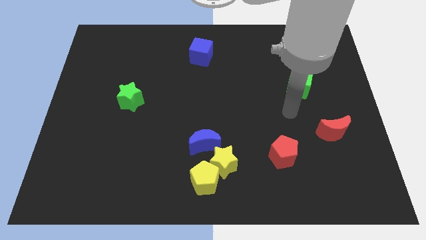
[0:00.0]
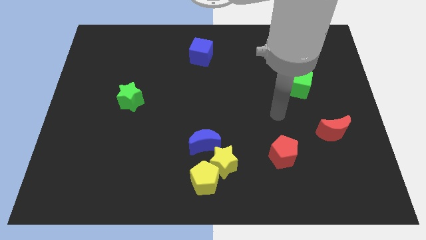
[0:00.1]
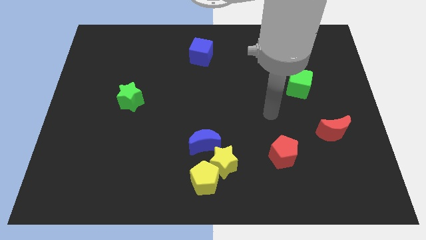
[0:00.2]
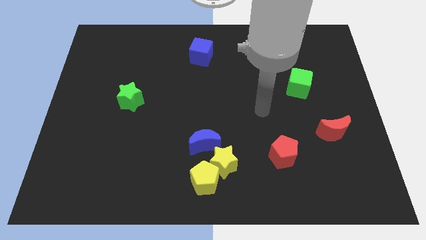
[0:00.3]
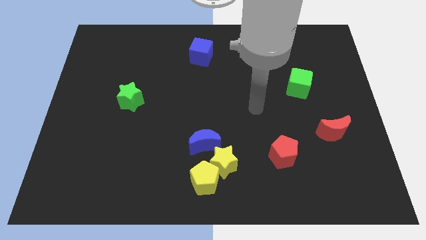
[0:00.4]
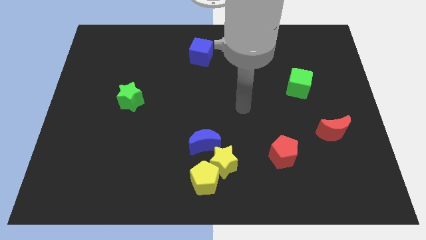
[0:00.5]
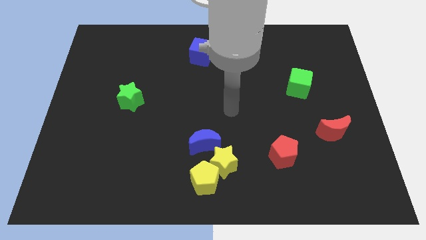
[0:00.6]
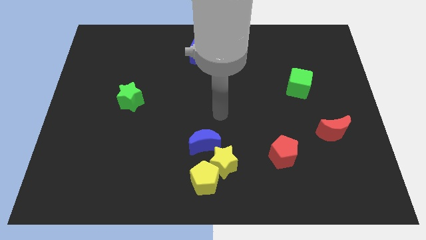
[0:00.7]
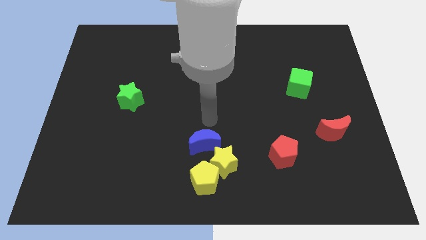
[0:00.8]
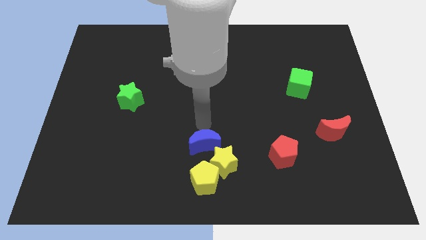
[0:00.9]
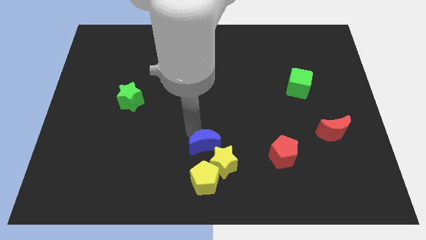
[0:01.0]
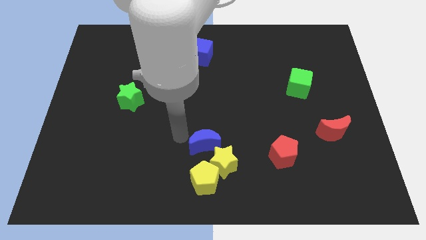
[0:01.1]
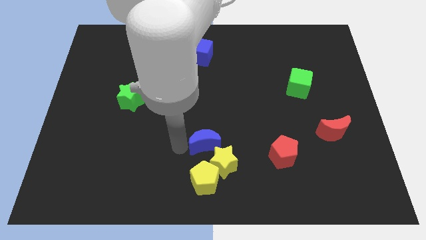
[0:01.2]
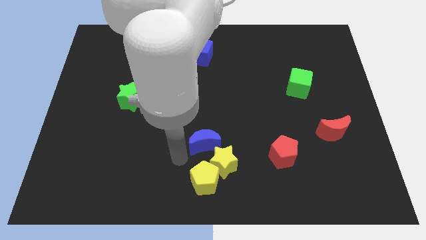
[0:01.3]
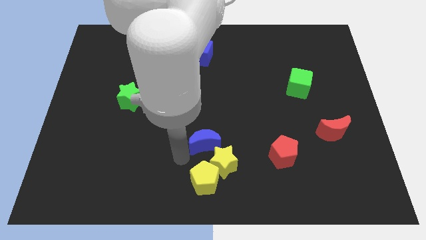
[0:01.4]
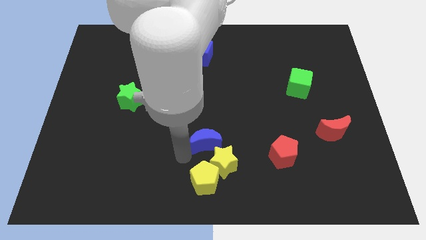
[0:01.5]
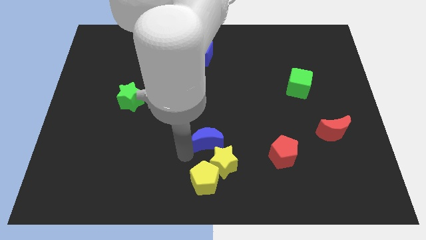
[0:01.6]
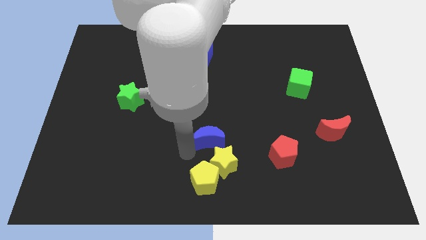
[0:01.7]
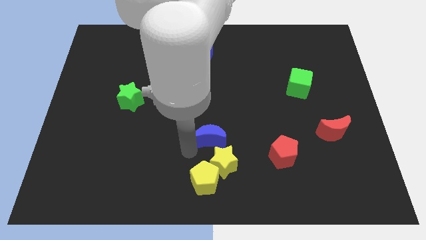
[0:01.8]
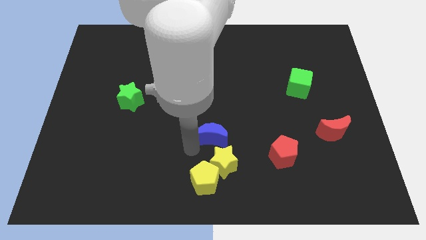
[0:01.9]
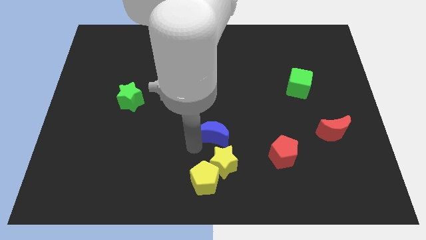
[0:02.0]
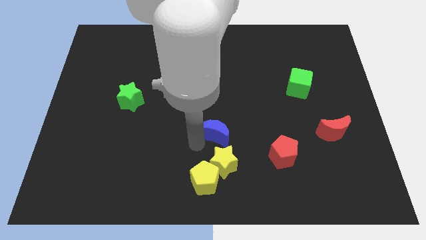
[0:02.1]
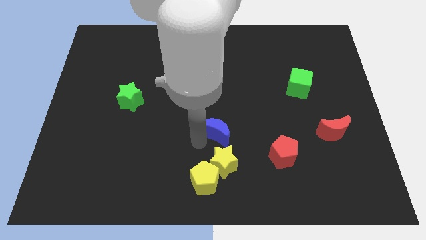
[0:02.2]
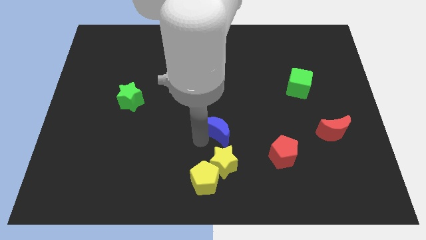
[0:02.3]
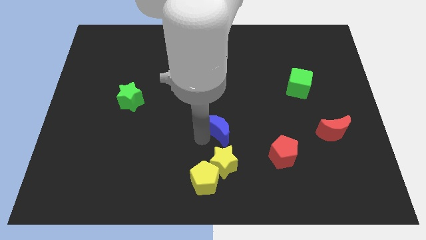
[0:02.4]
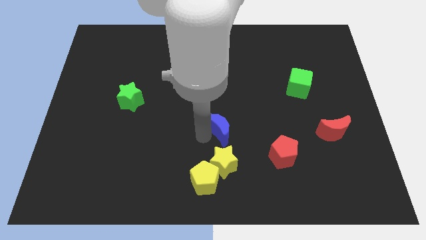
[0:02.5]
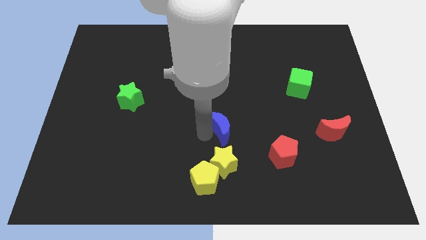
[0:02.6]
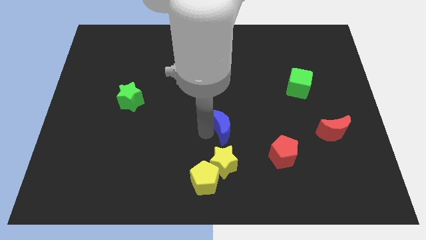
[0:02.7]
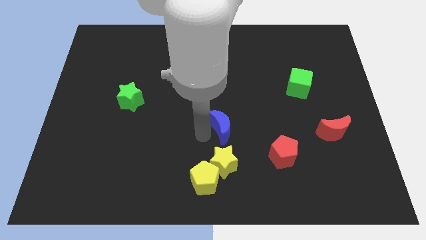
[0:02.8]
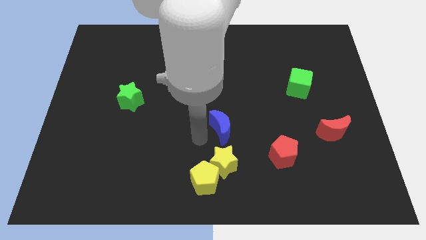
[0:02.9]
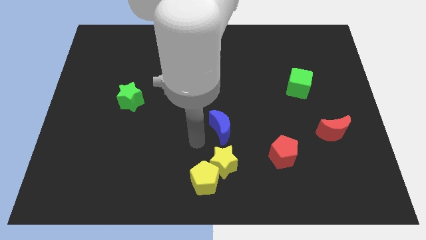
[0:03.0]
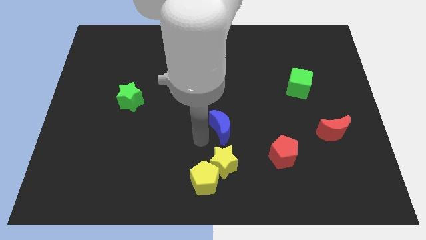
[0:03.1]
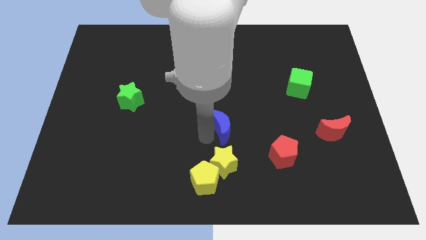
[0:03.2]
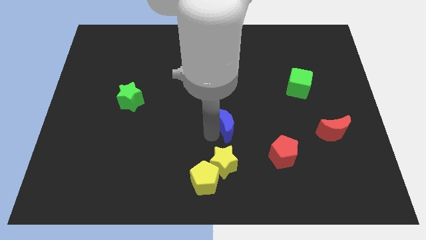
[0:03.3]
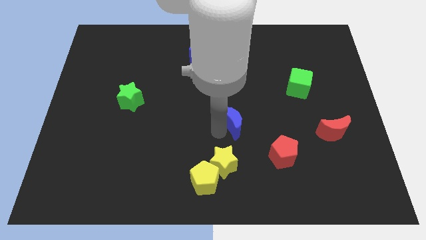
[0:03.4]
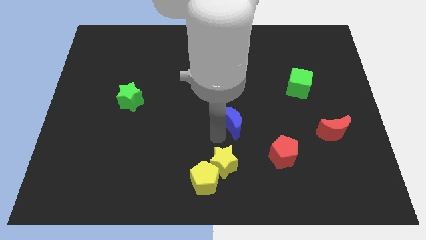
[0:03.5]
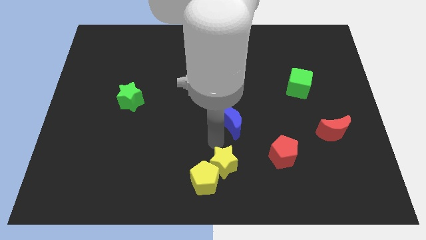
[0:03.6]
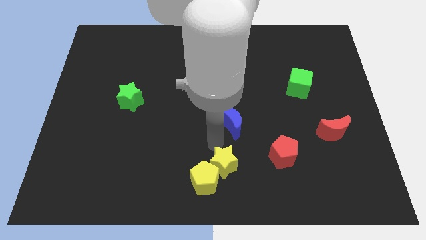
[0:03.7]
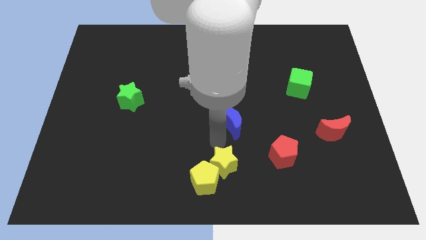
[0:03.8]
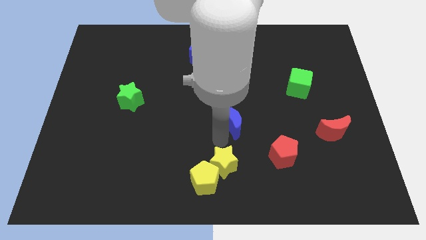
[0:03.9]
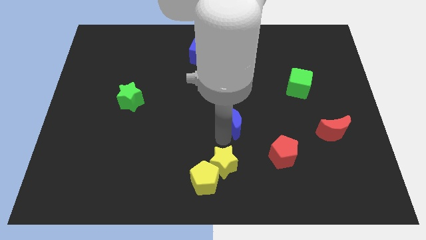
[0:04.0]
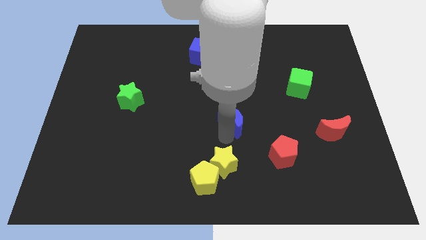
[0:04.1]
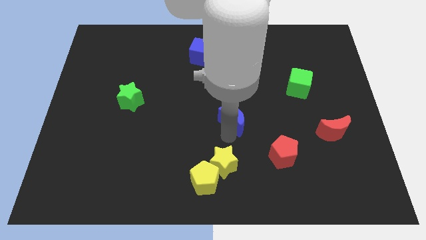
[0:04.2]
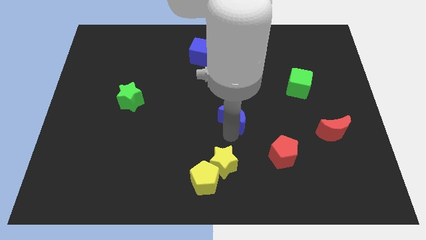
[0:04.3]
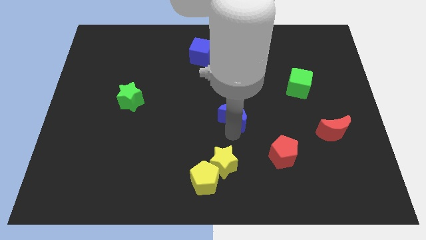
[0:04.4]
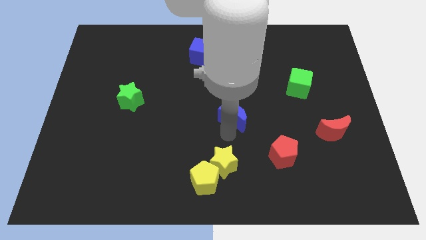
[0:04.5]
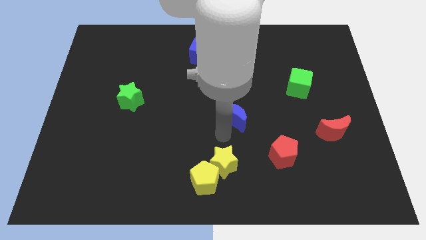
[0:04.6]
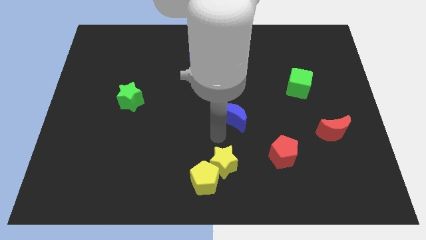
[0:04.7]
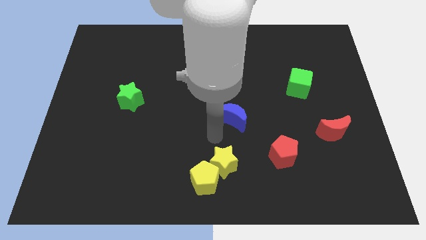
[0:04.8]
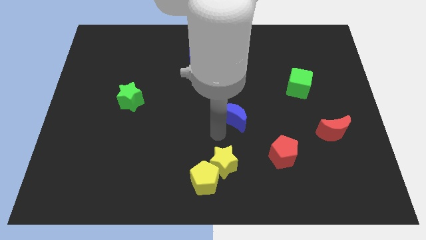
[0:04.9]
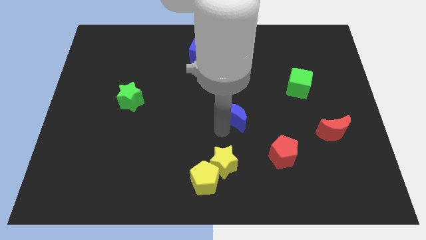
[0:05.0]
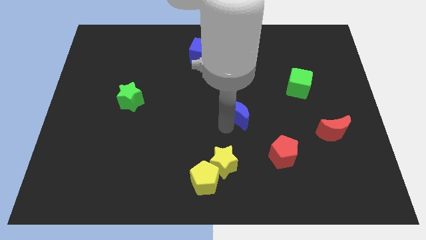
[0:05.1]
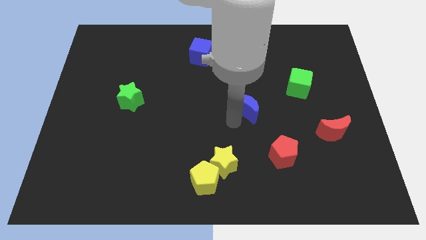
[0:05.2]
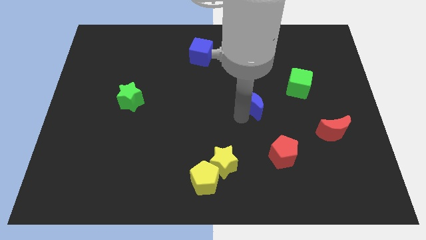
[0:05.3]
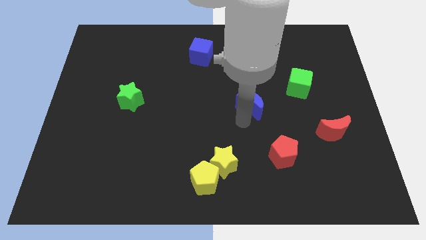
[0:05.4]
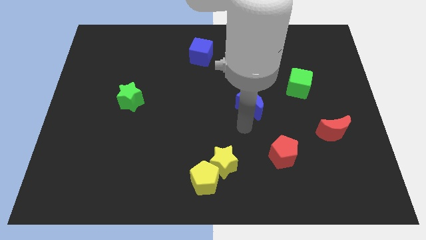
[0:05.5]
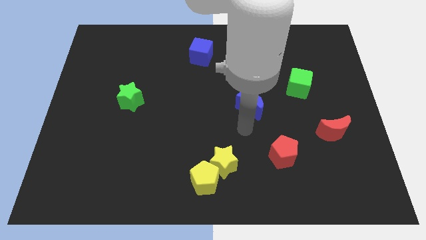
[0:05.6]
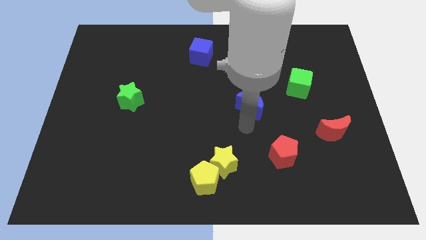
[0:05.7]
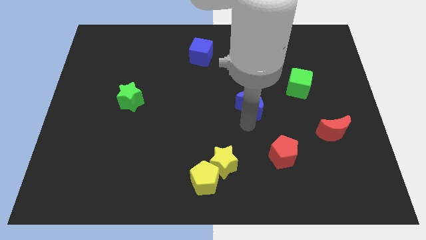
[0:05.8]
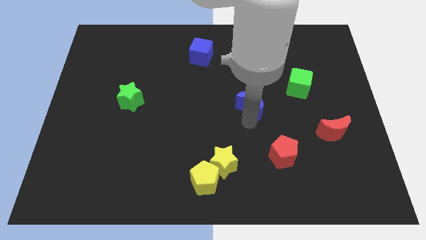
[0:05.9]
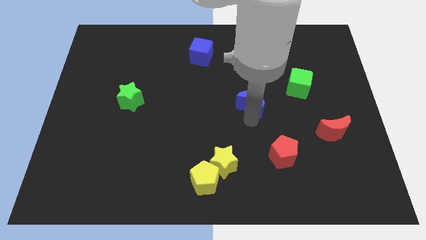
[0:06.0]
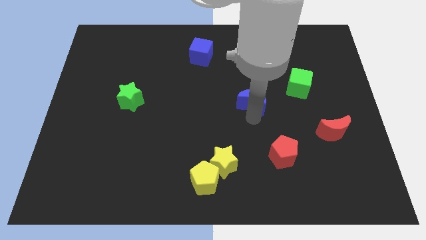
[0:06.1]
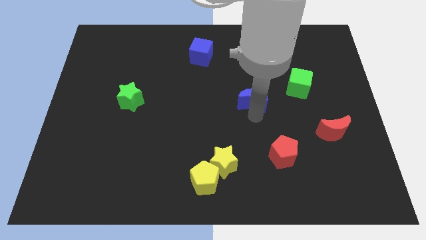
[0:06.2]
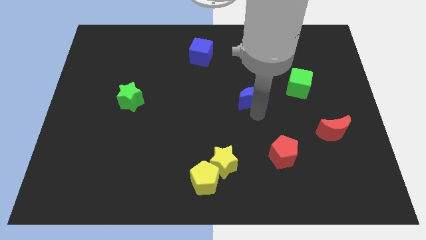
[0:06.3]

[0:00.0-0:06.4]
put the blue moon to the left side of the green cube
